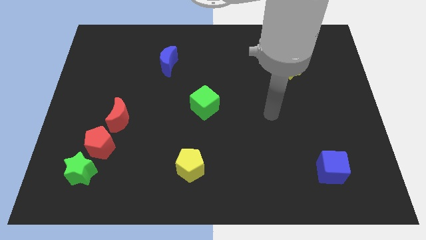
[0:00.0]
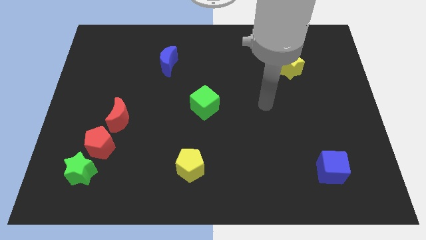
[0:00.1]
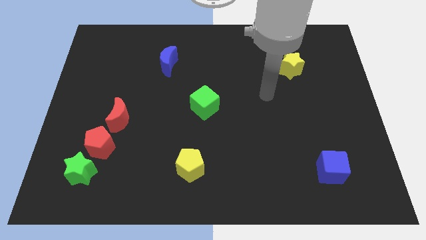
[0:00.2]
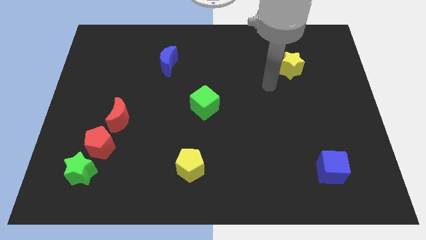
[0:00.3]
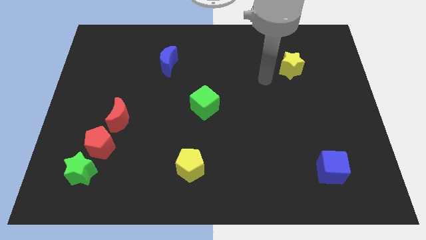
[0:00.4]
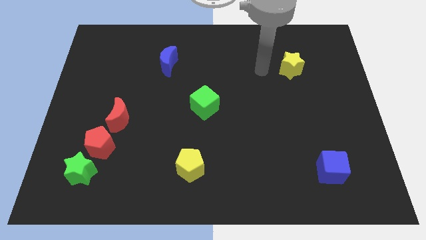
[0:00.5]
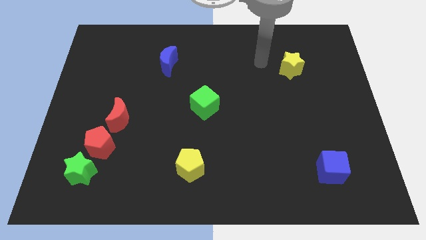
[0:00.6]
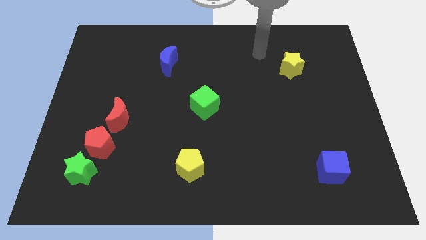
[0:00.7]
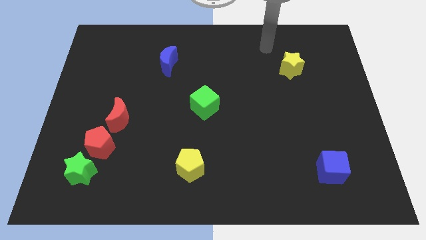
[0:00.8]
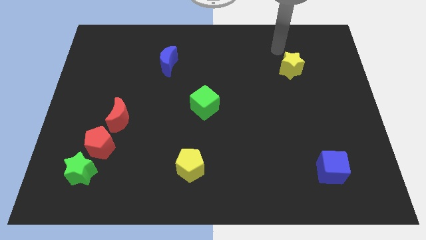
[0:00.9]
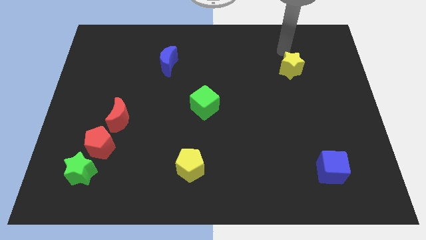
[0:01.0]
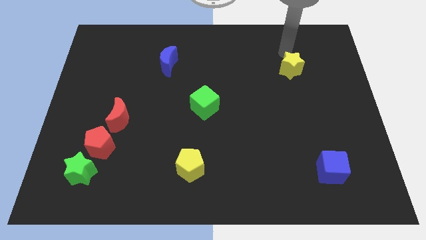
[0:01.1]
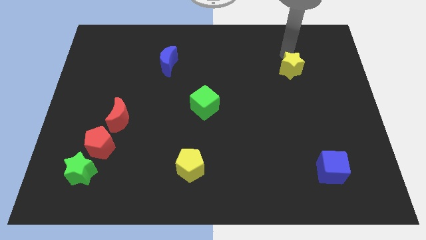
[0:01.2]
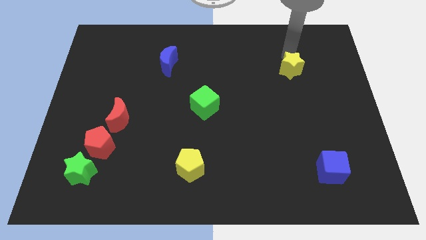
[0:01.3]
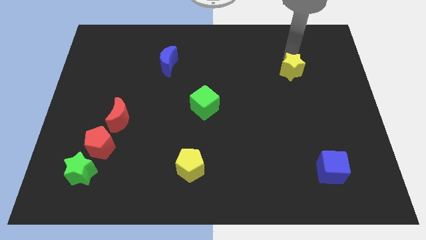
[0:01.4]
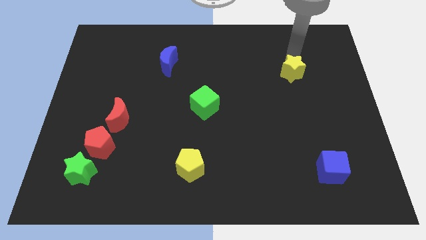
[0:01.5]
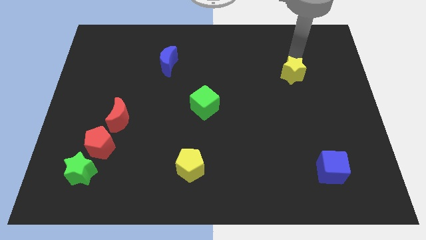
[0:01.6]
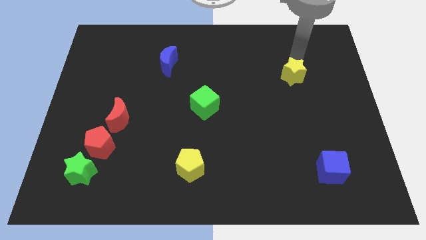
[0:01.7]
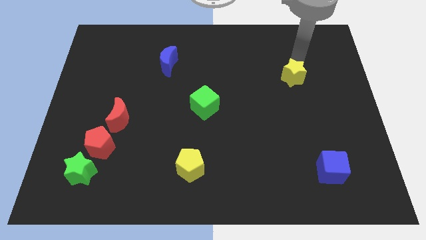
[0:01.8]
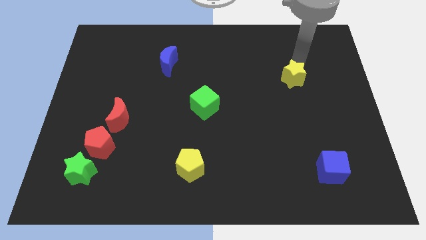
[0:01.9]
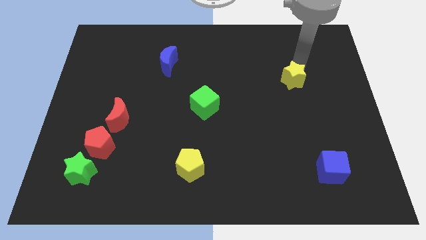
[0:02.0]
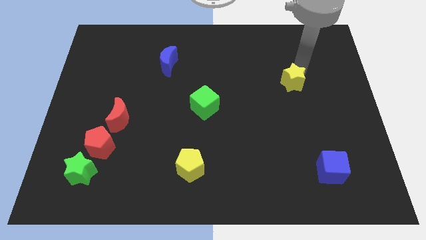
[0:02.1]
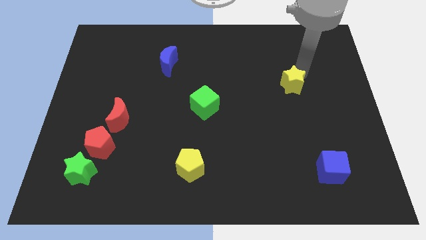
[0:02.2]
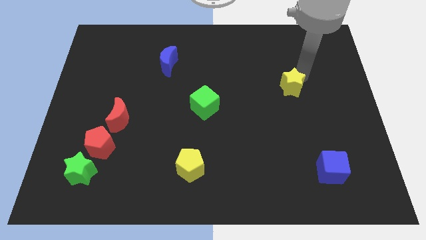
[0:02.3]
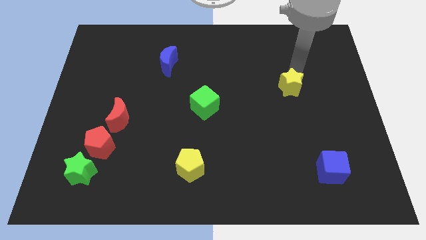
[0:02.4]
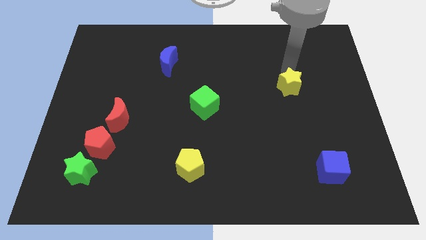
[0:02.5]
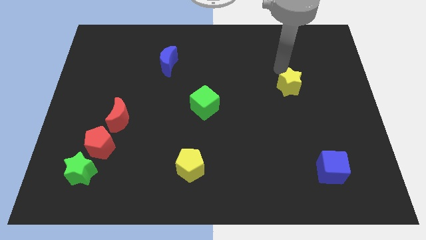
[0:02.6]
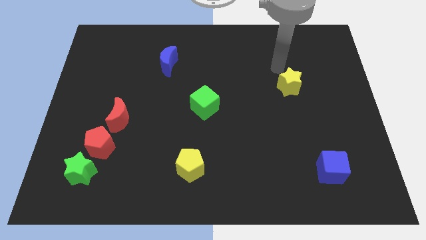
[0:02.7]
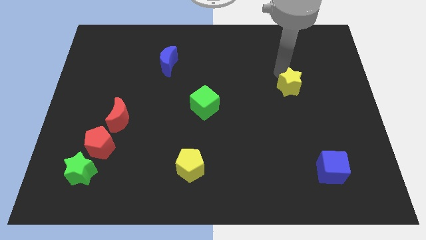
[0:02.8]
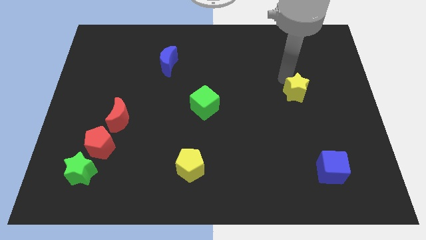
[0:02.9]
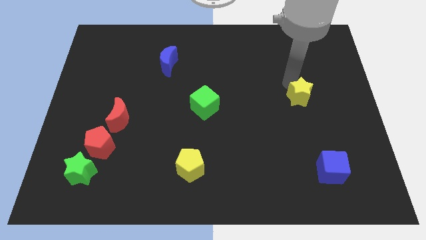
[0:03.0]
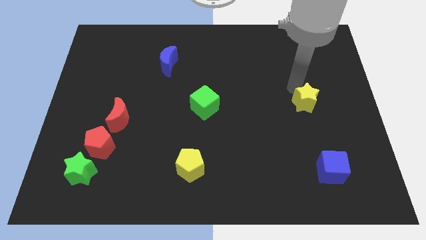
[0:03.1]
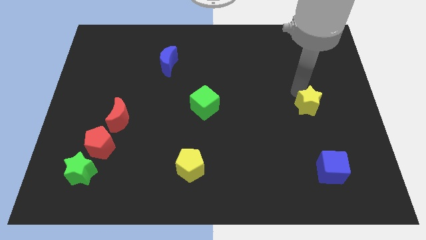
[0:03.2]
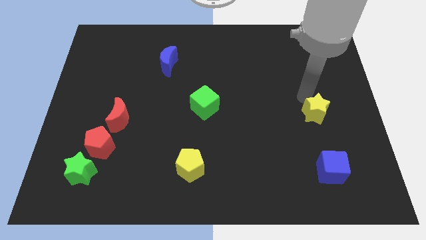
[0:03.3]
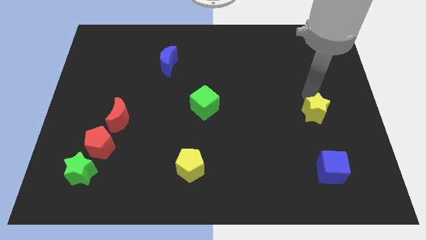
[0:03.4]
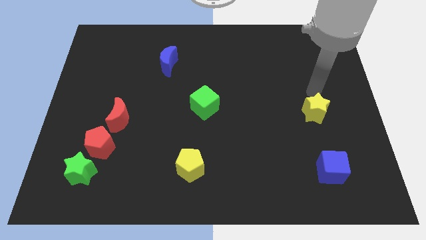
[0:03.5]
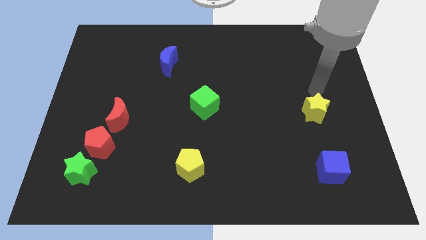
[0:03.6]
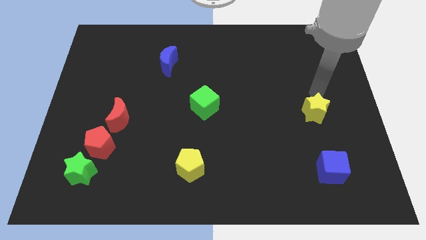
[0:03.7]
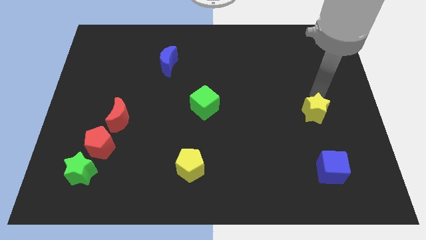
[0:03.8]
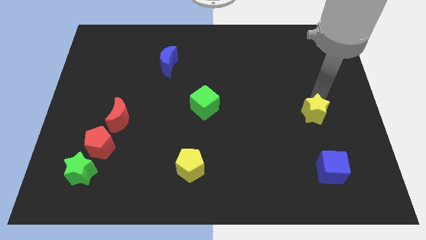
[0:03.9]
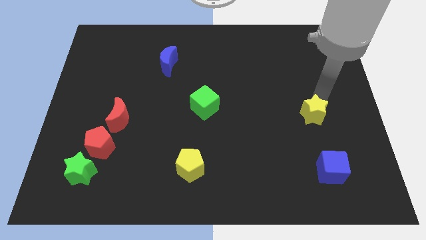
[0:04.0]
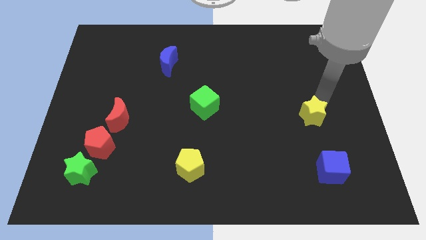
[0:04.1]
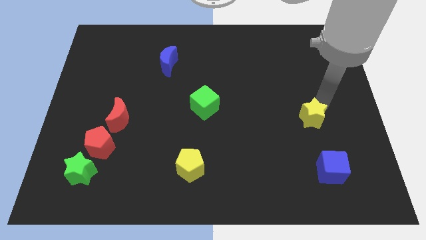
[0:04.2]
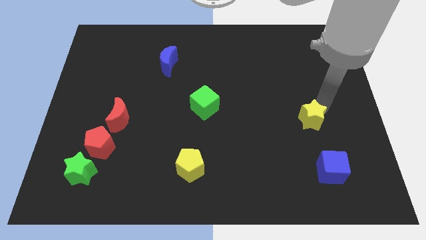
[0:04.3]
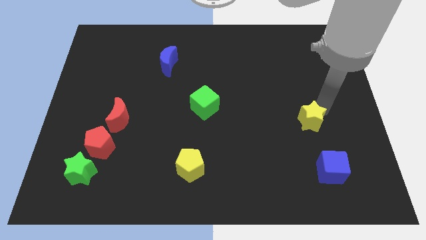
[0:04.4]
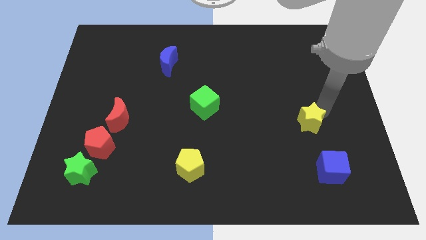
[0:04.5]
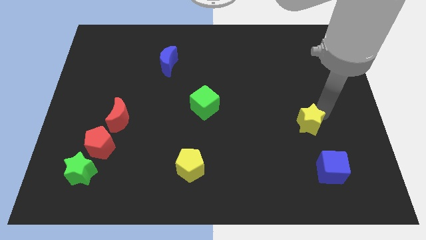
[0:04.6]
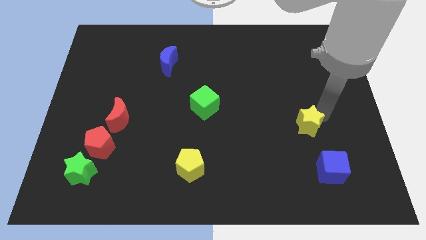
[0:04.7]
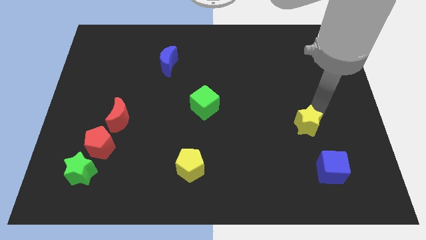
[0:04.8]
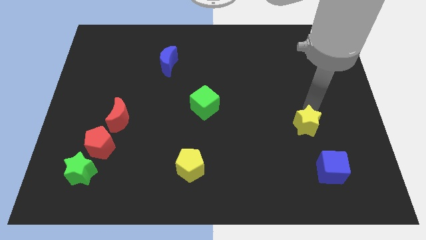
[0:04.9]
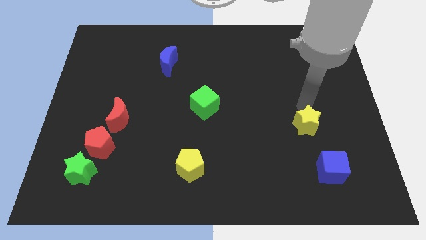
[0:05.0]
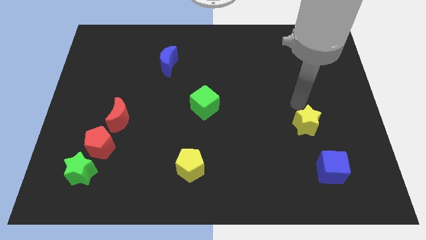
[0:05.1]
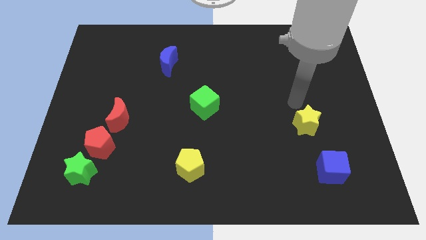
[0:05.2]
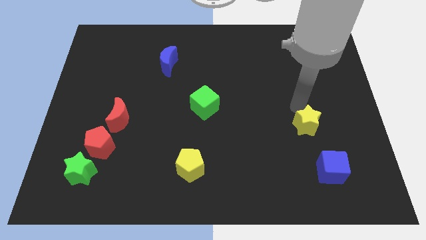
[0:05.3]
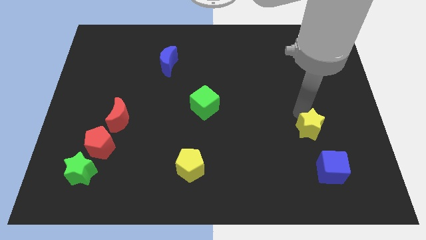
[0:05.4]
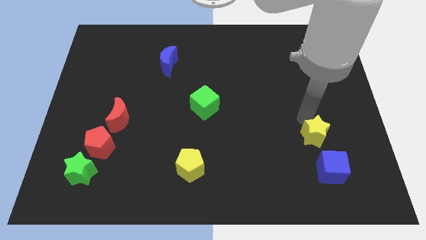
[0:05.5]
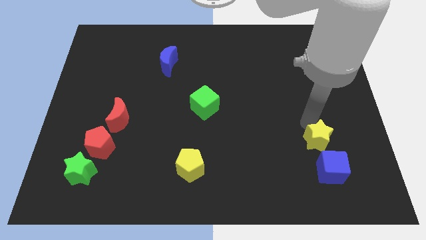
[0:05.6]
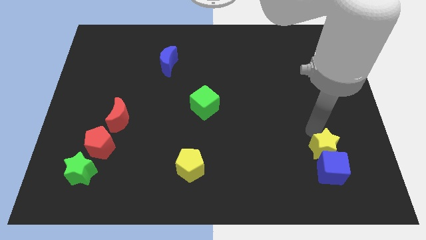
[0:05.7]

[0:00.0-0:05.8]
slide the yellow star close to the blue cube

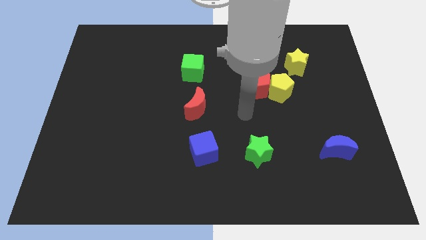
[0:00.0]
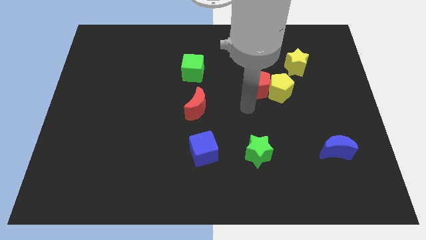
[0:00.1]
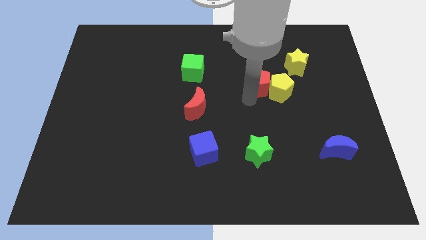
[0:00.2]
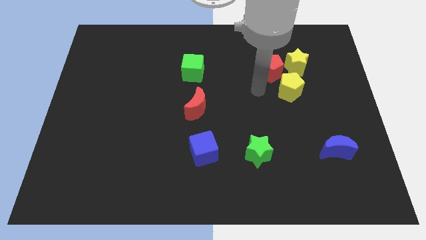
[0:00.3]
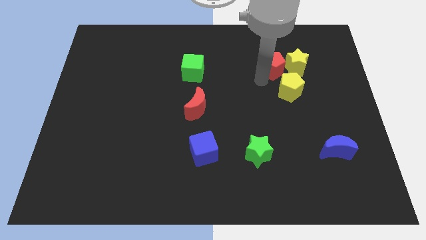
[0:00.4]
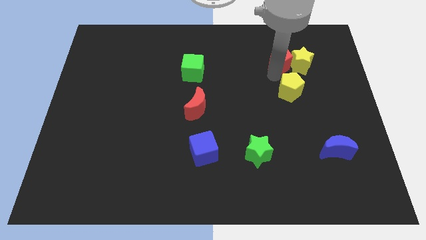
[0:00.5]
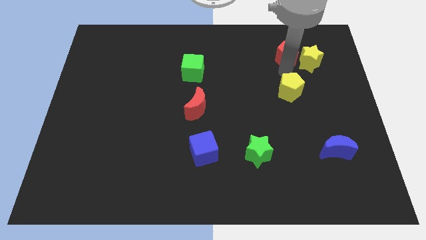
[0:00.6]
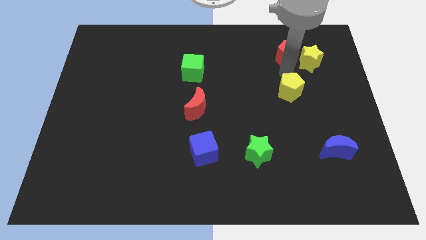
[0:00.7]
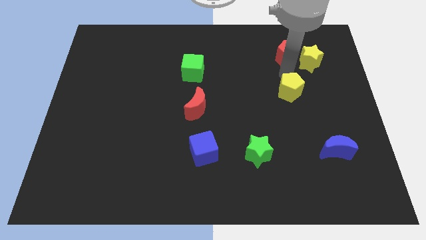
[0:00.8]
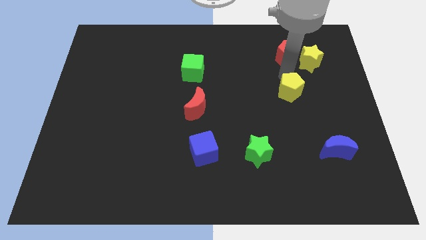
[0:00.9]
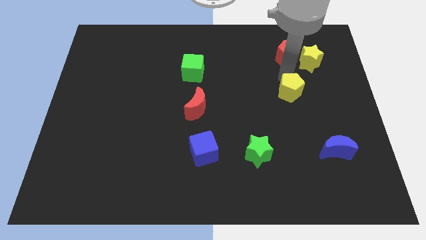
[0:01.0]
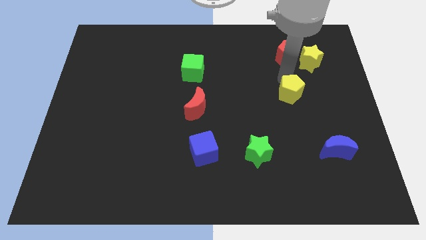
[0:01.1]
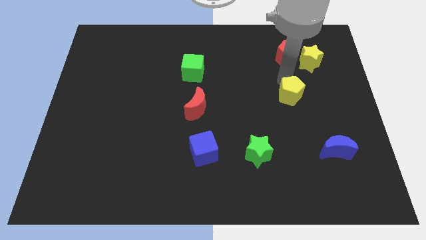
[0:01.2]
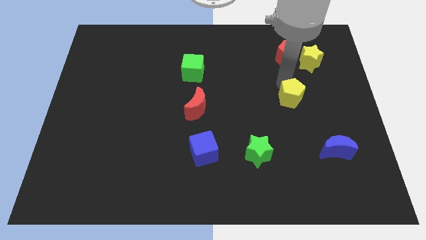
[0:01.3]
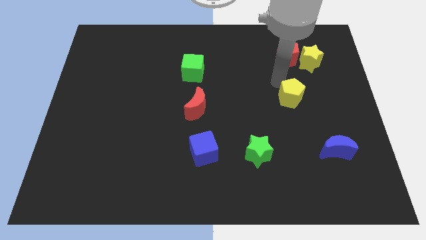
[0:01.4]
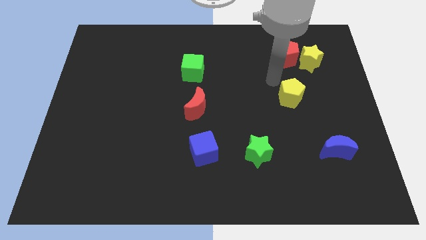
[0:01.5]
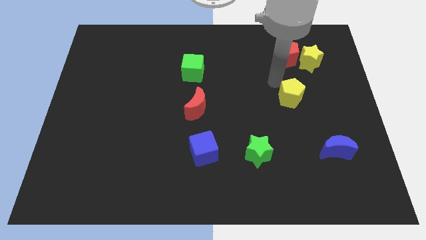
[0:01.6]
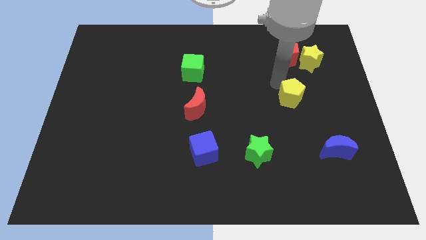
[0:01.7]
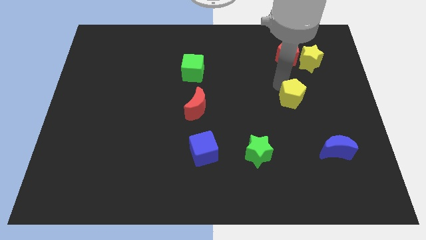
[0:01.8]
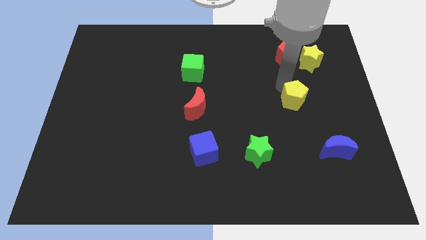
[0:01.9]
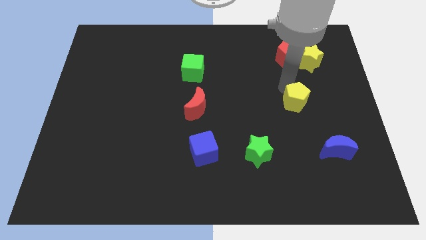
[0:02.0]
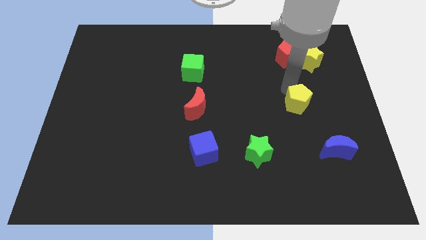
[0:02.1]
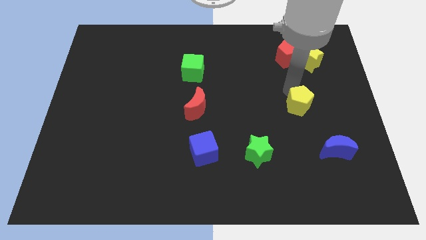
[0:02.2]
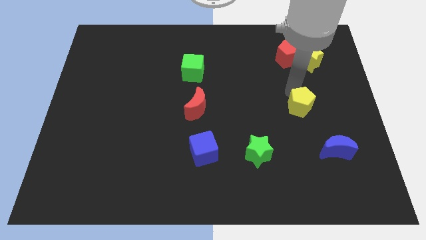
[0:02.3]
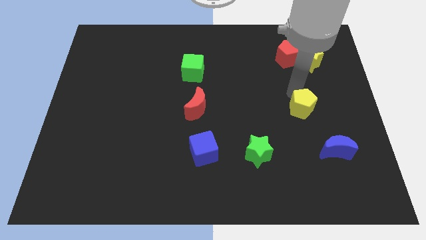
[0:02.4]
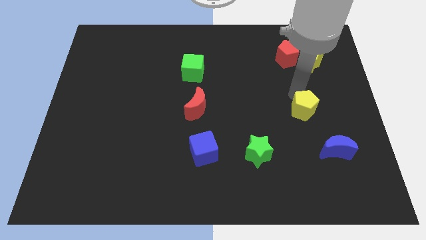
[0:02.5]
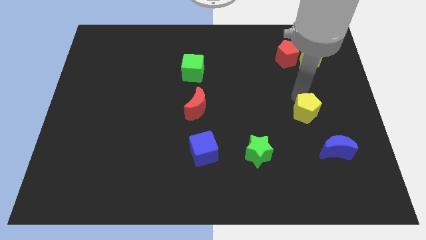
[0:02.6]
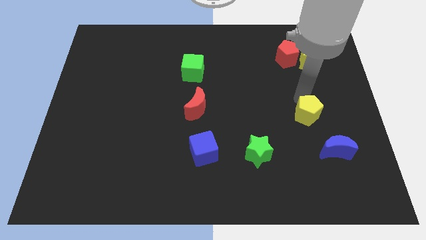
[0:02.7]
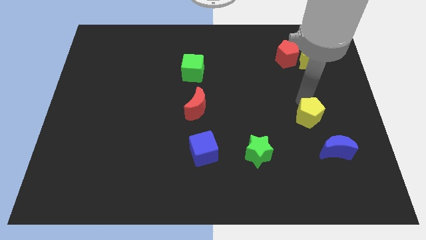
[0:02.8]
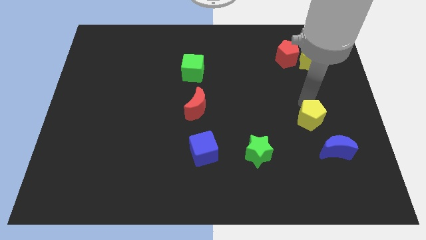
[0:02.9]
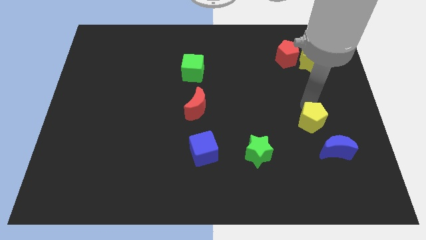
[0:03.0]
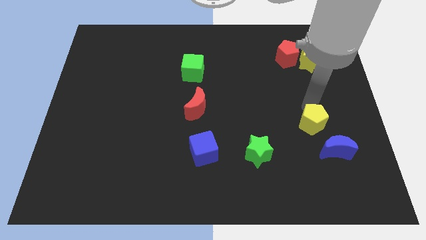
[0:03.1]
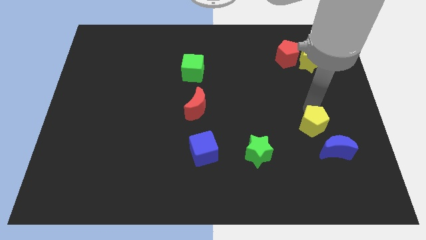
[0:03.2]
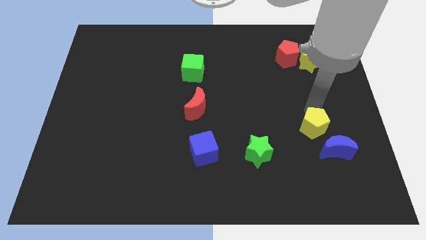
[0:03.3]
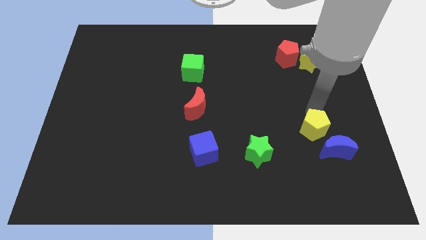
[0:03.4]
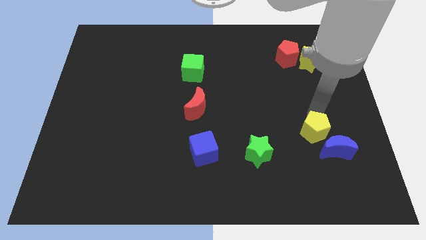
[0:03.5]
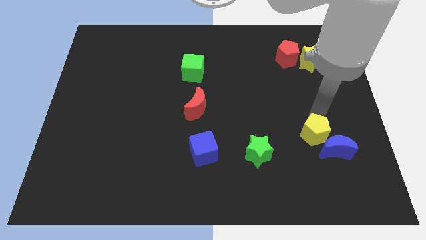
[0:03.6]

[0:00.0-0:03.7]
move the yellow pentagon close to the blue moon
